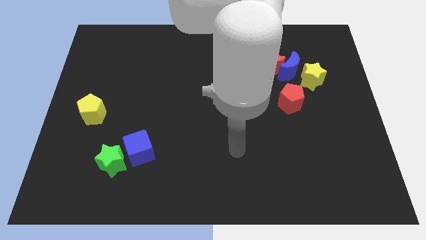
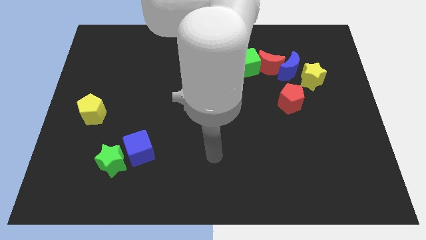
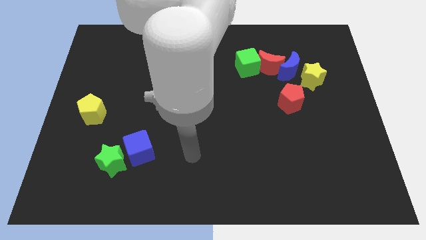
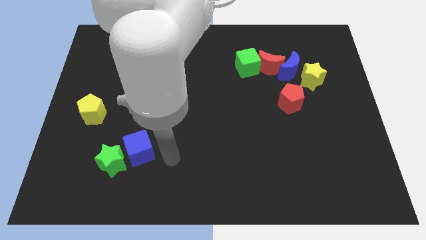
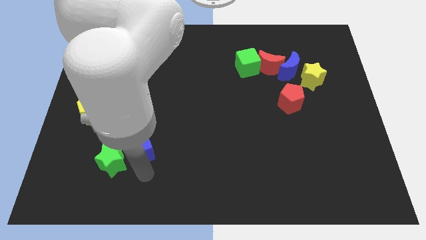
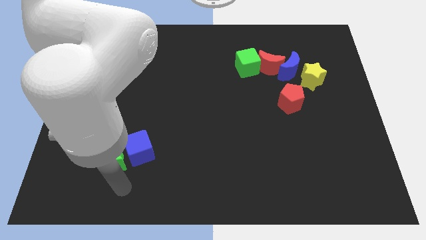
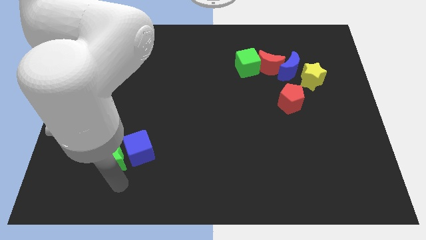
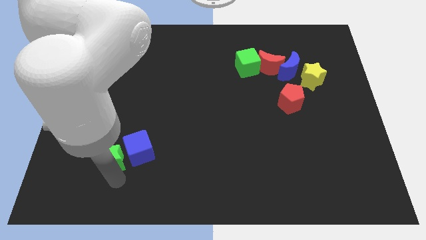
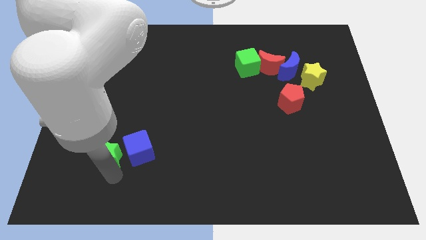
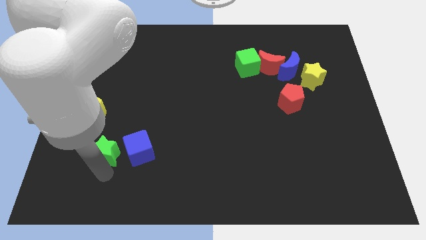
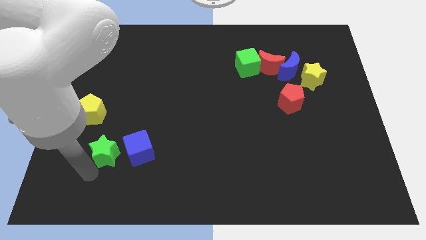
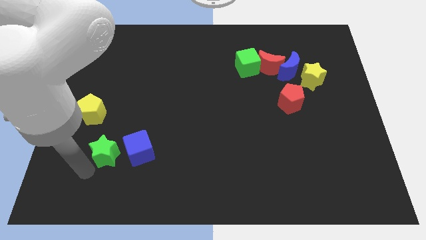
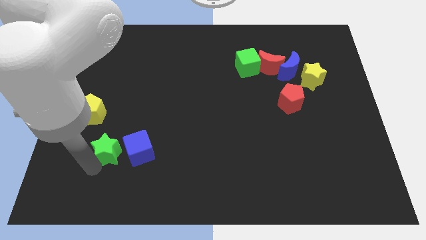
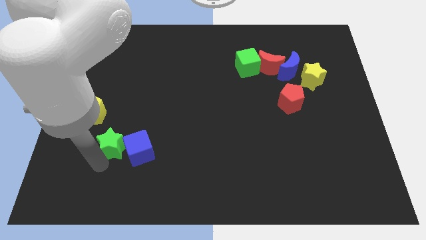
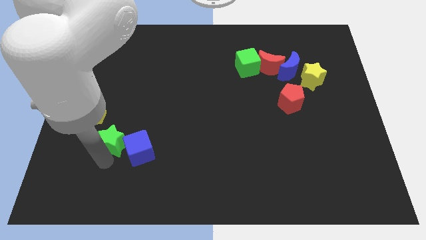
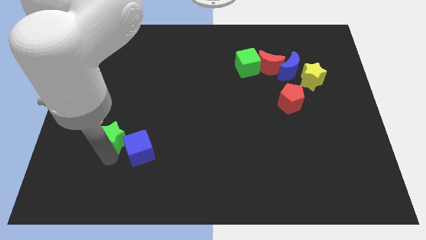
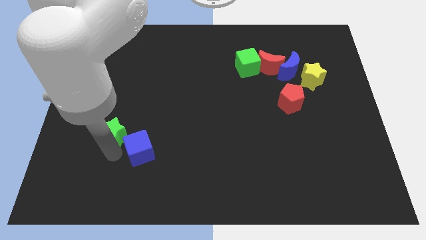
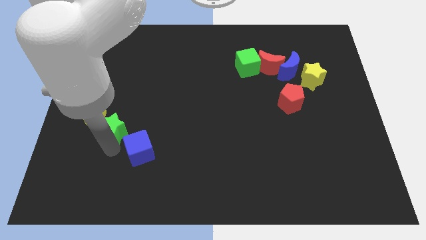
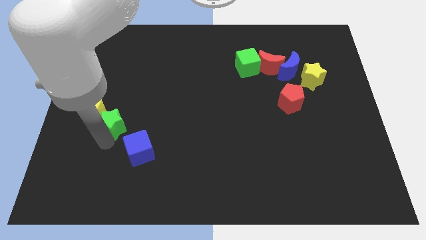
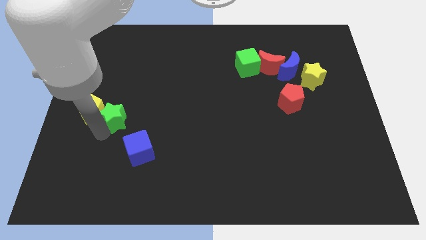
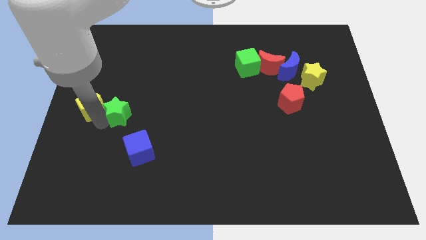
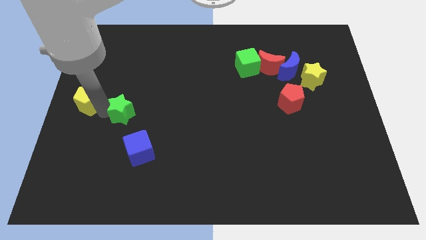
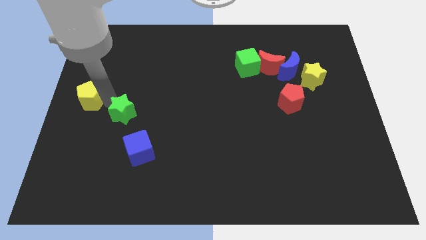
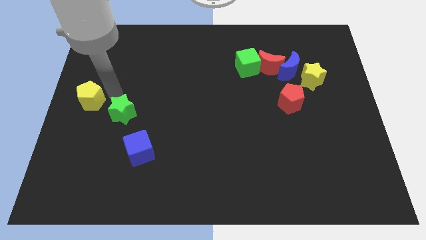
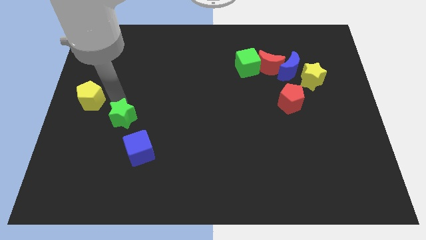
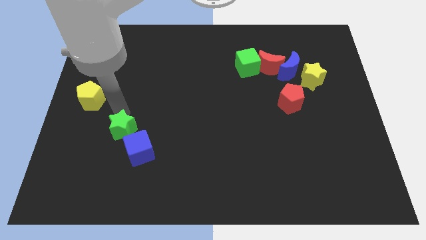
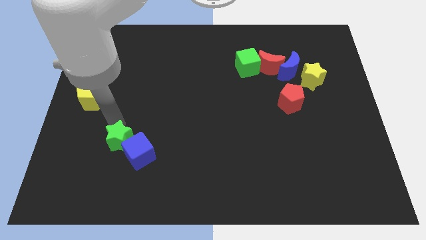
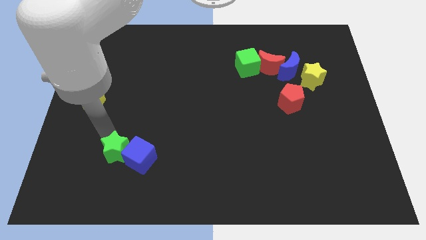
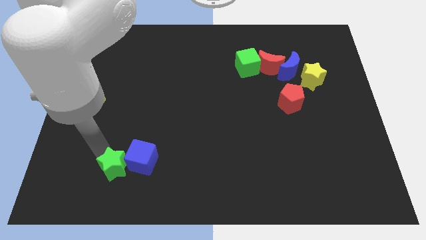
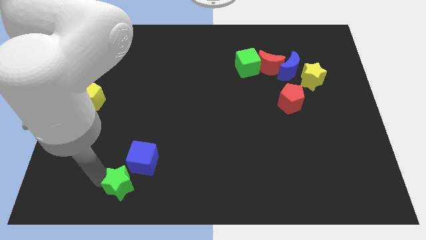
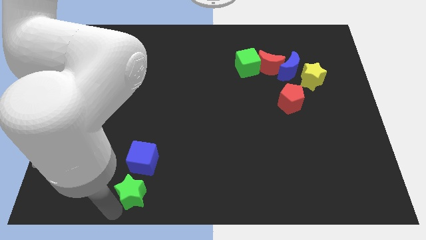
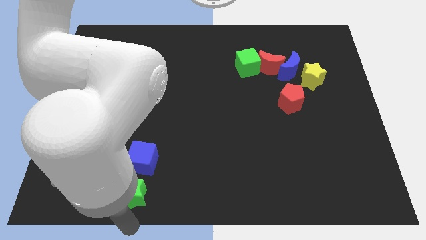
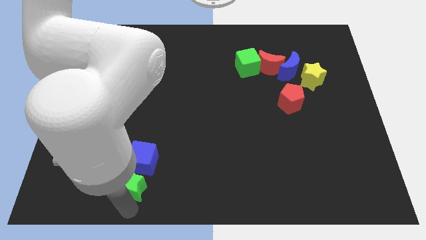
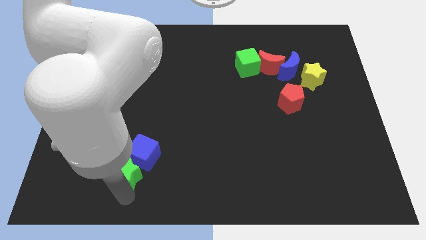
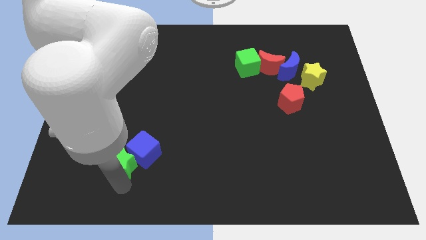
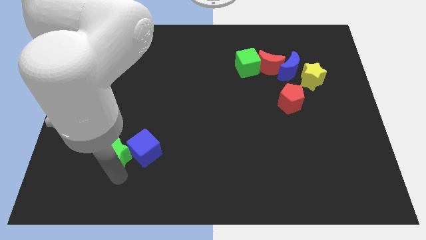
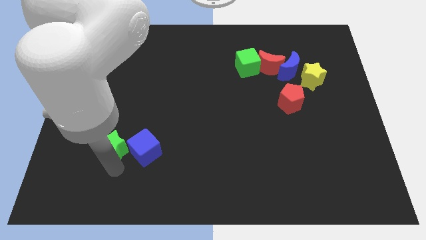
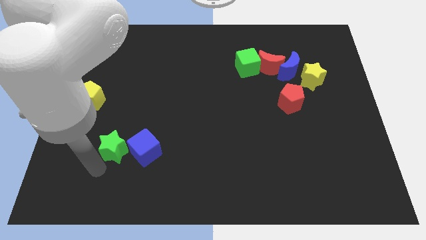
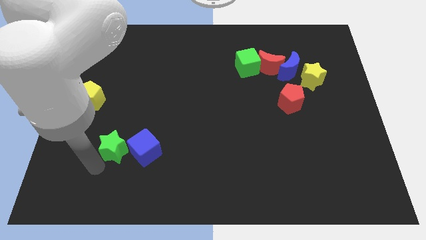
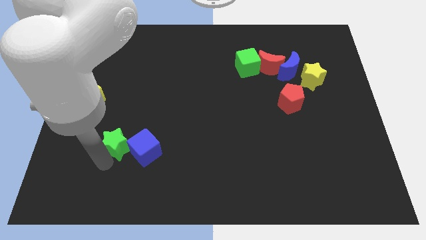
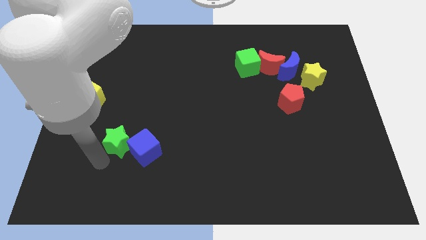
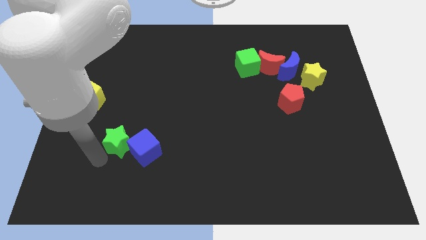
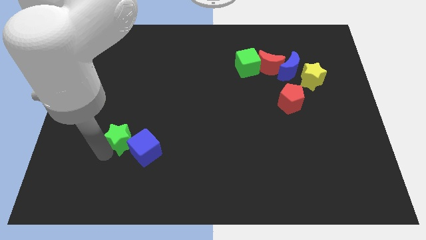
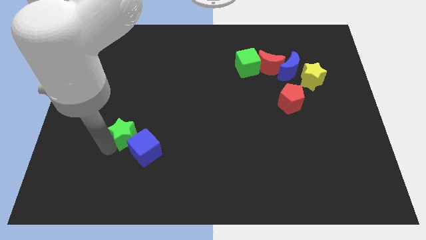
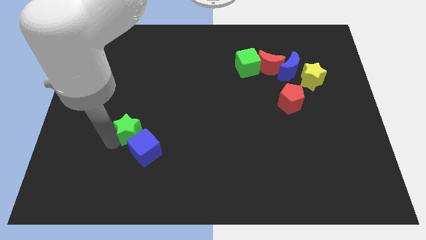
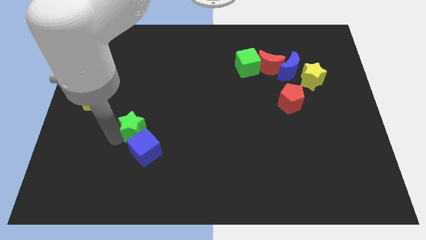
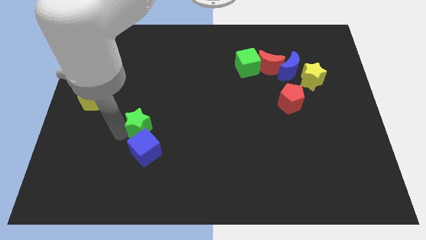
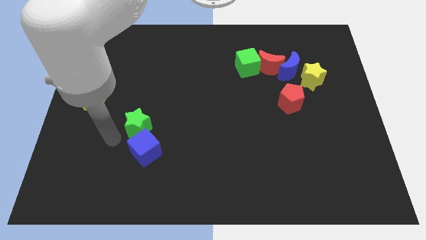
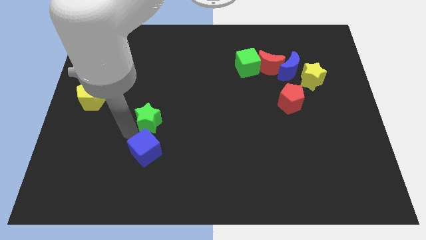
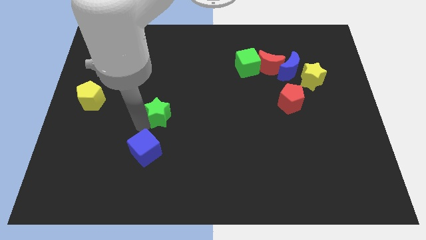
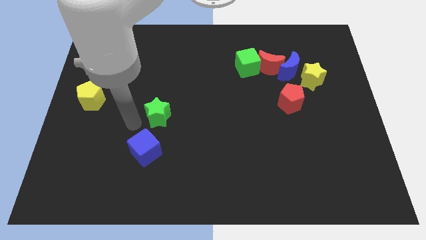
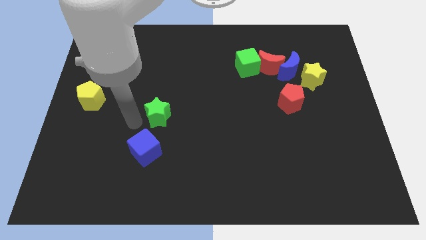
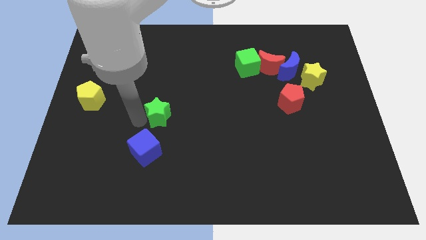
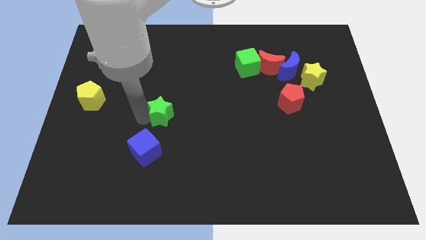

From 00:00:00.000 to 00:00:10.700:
put the green star to the middle

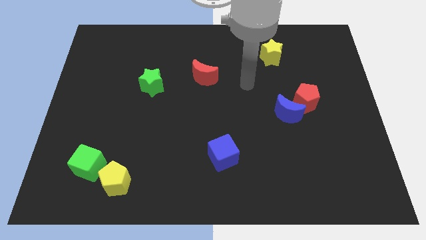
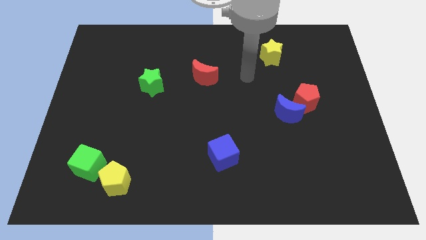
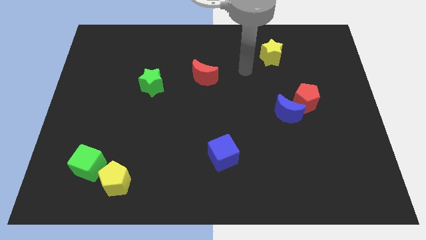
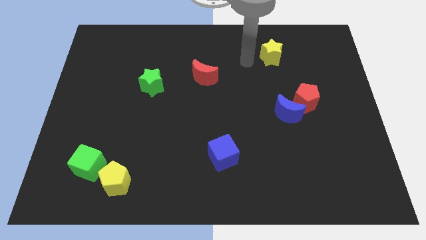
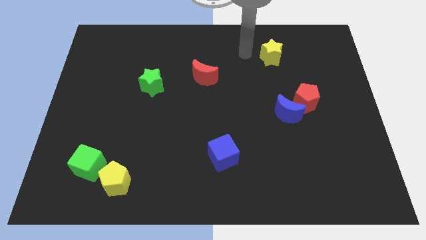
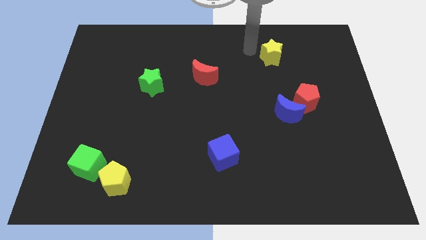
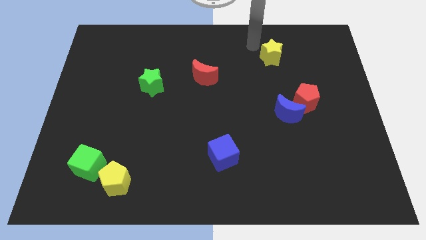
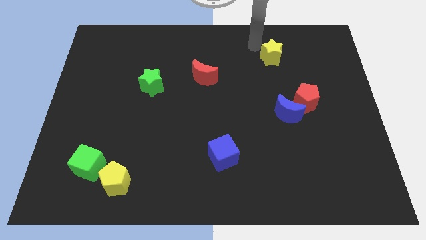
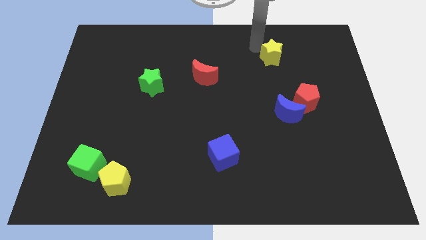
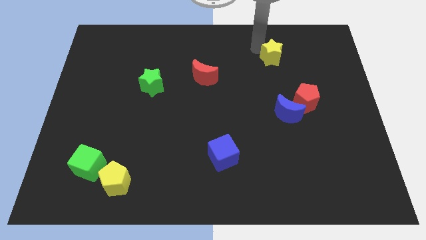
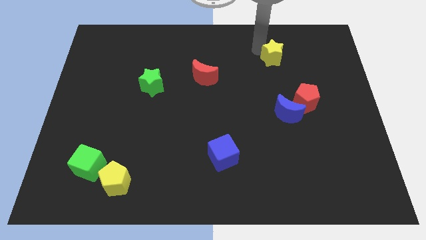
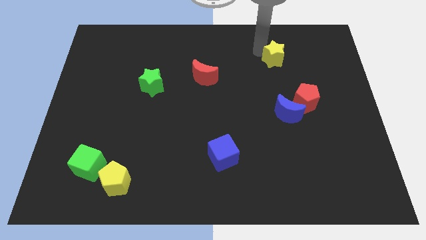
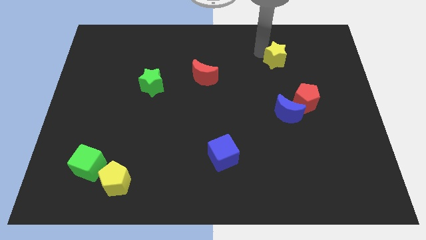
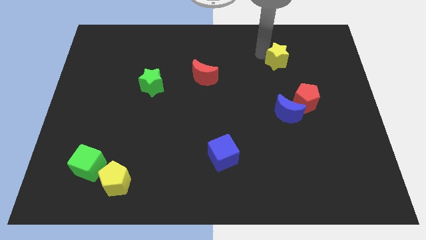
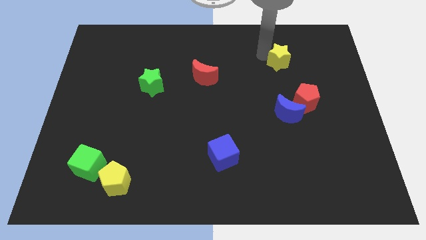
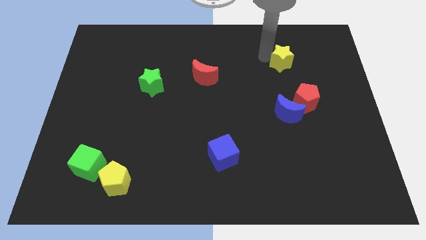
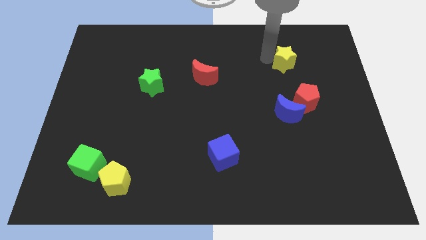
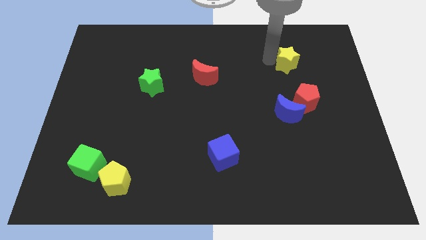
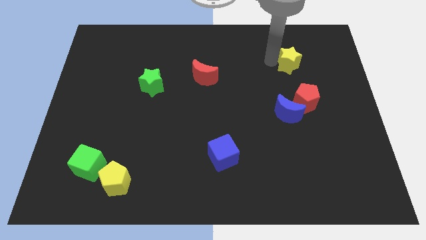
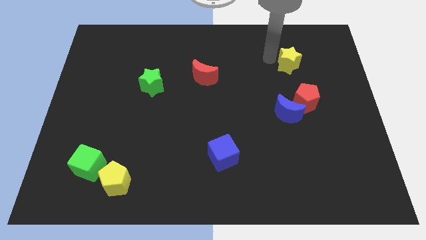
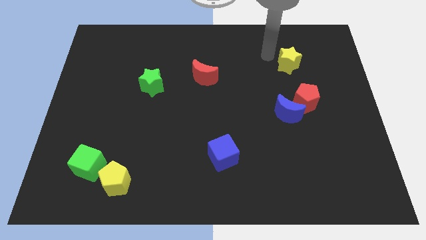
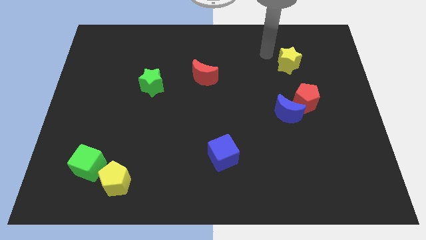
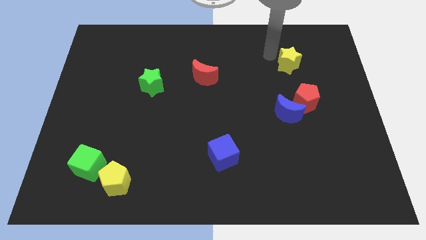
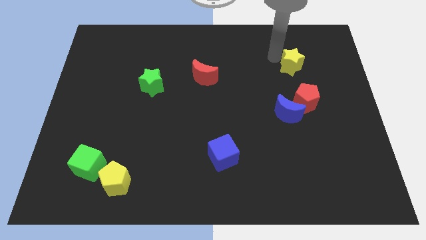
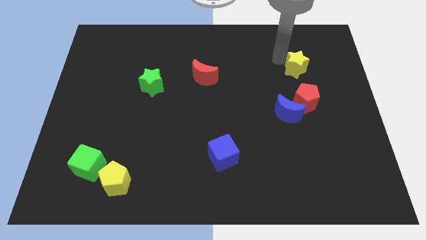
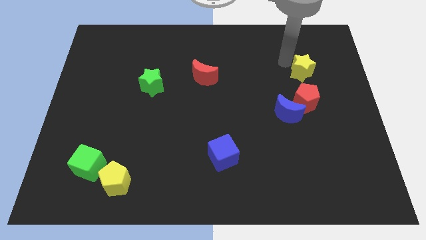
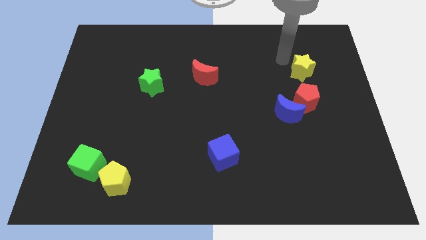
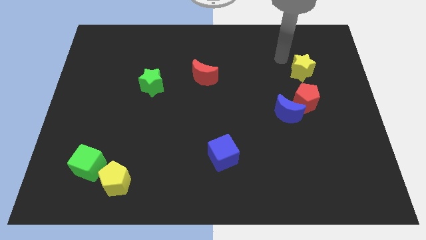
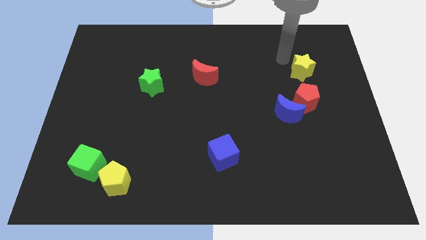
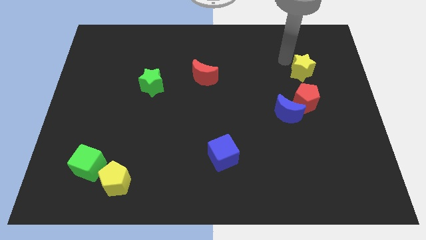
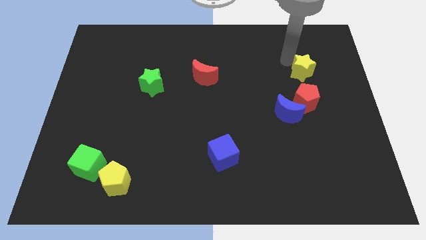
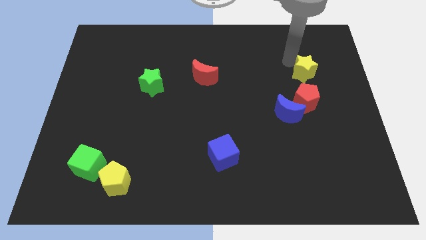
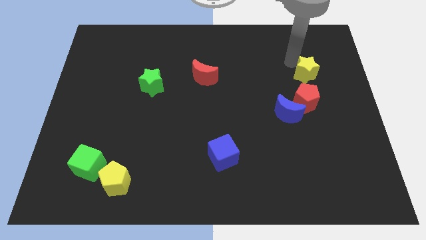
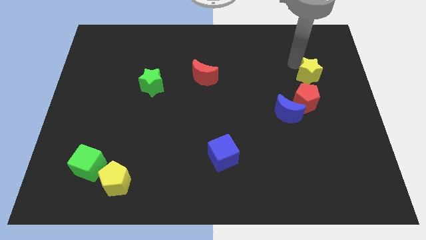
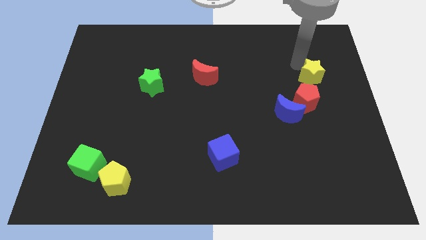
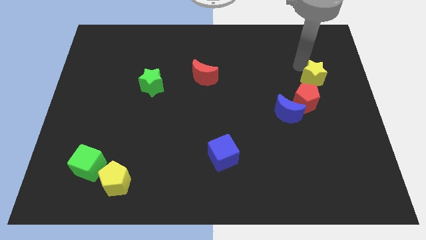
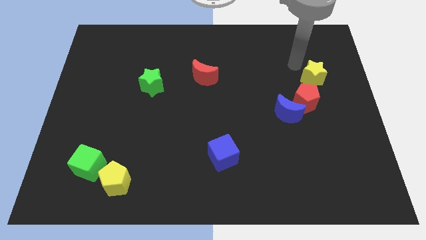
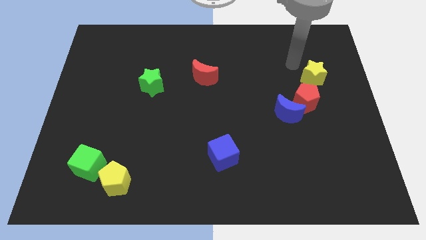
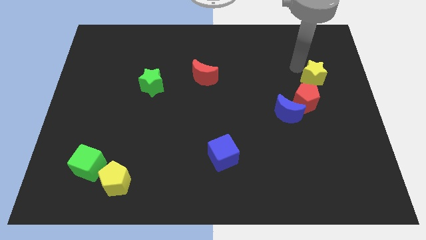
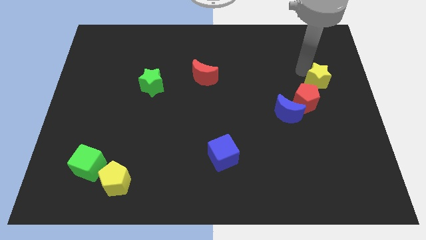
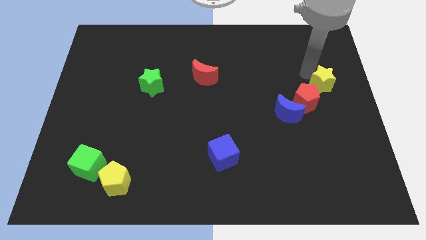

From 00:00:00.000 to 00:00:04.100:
put the yellow star to the right side
